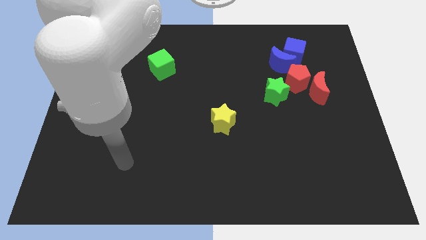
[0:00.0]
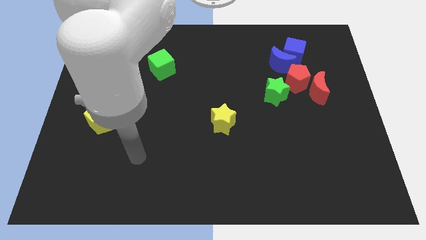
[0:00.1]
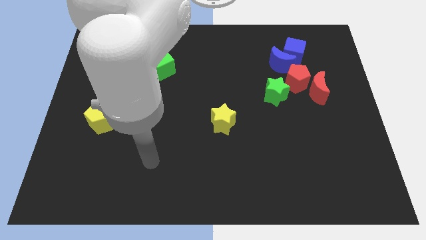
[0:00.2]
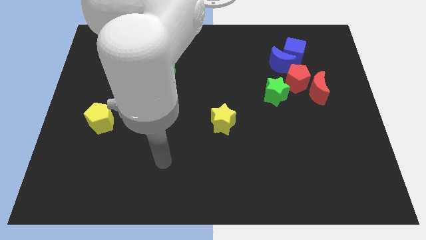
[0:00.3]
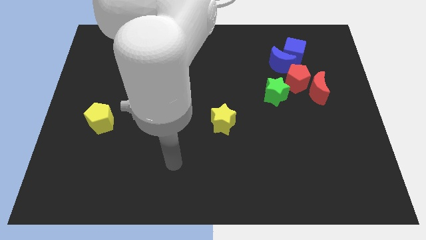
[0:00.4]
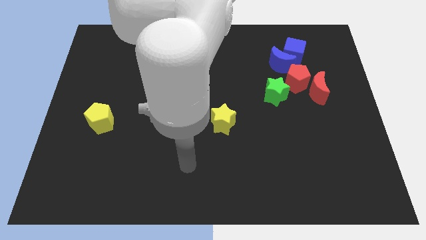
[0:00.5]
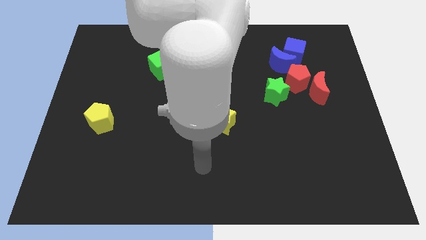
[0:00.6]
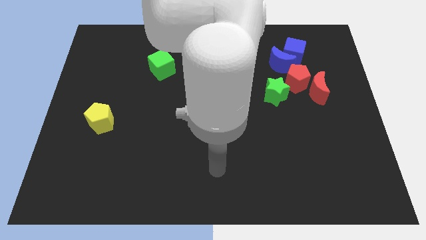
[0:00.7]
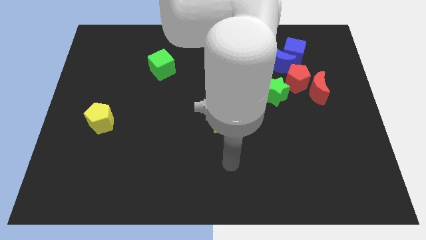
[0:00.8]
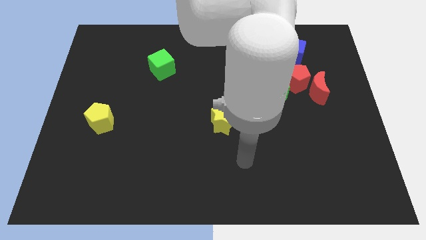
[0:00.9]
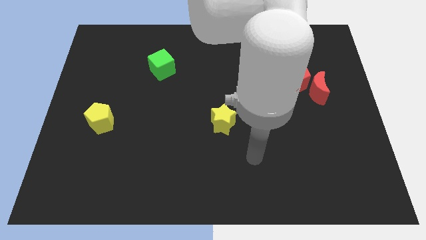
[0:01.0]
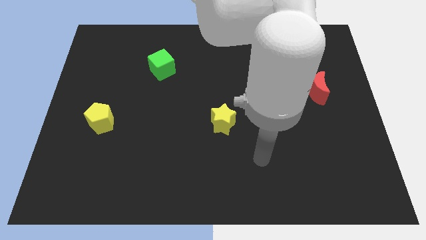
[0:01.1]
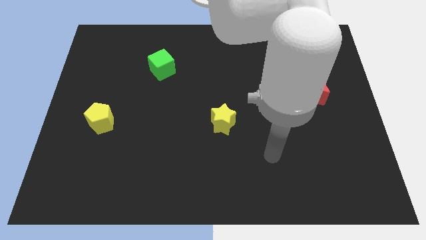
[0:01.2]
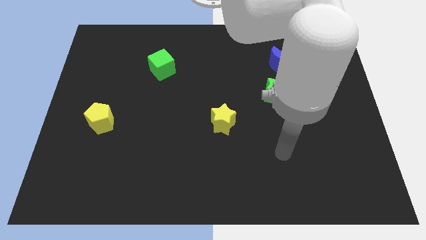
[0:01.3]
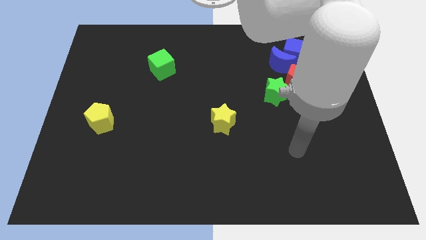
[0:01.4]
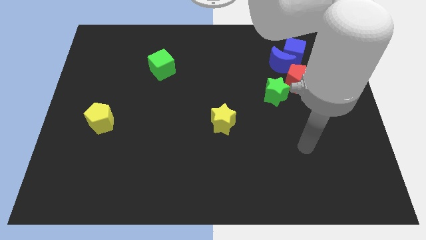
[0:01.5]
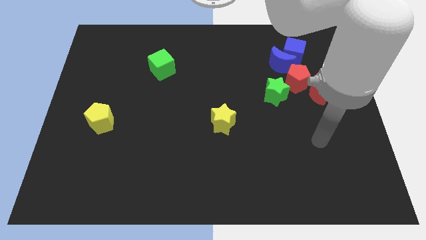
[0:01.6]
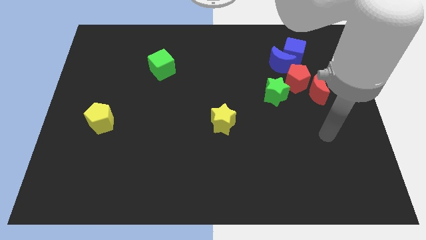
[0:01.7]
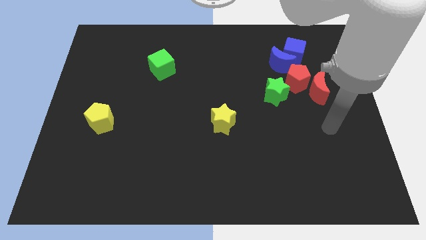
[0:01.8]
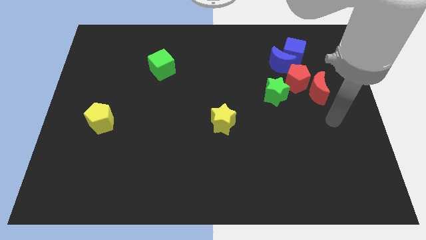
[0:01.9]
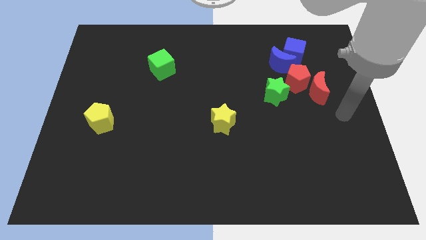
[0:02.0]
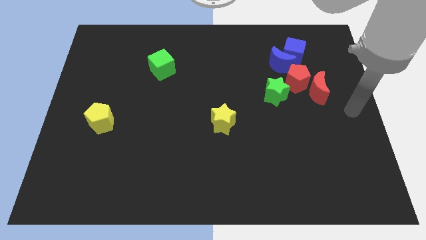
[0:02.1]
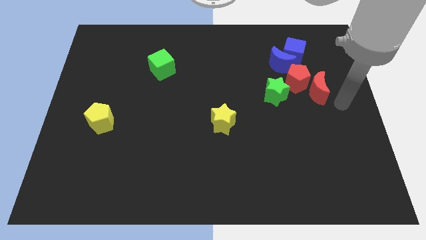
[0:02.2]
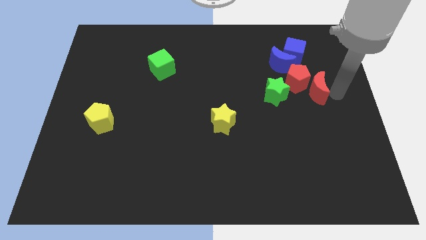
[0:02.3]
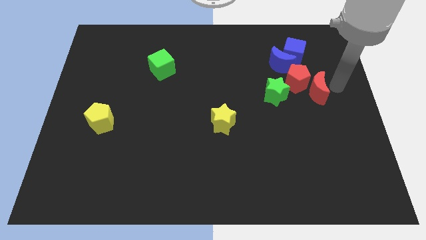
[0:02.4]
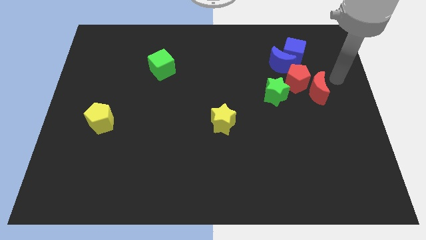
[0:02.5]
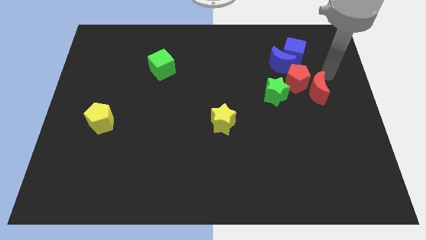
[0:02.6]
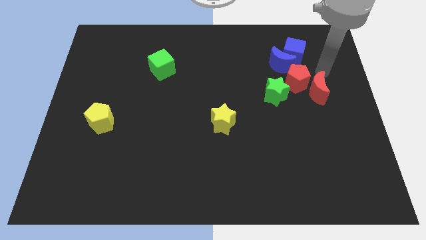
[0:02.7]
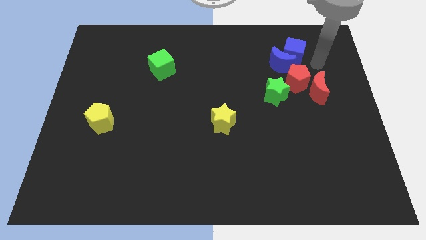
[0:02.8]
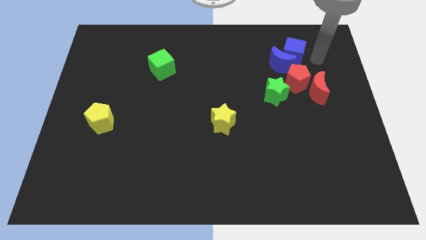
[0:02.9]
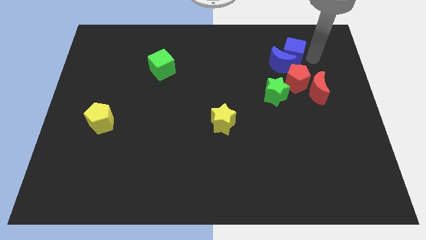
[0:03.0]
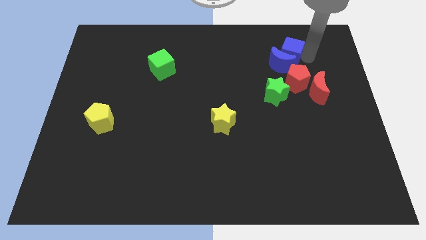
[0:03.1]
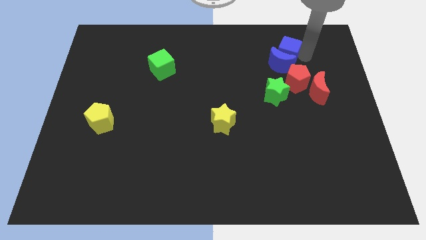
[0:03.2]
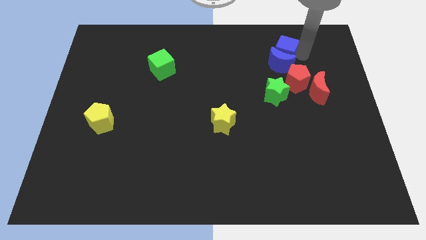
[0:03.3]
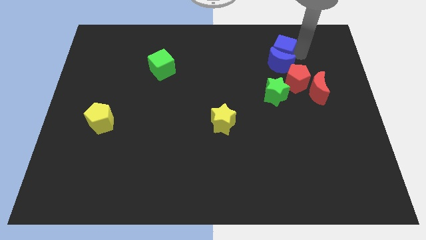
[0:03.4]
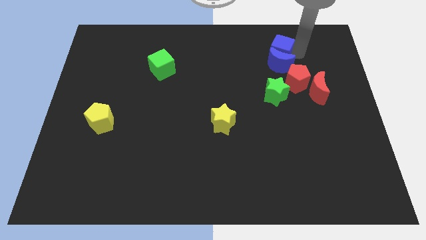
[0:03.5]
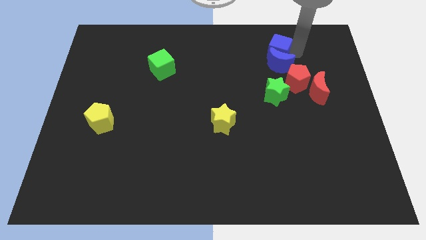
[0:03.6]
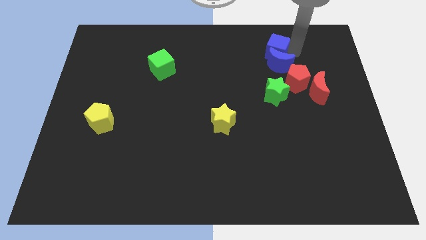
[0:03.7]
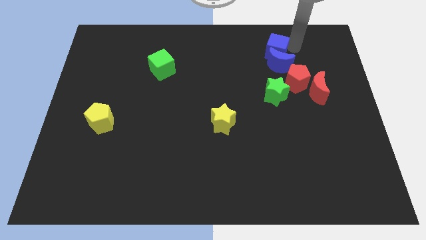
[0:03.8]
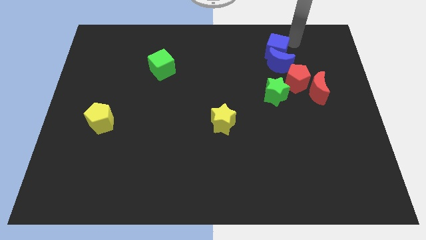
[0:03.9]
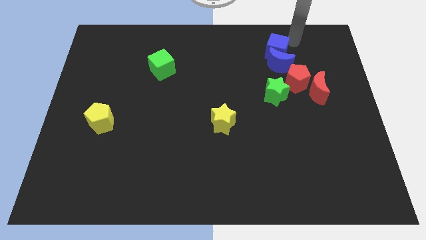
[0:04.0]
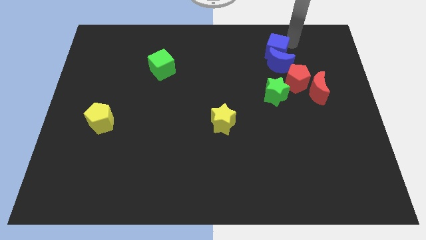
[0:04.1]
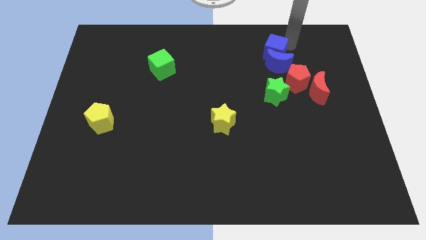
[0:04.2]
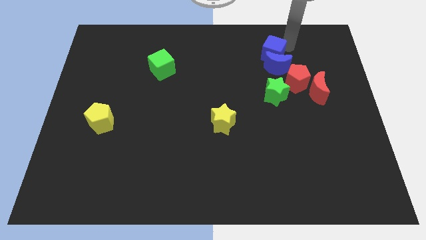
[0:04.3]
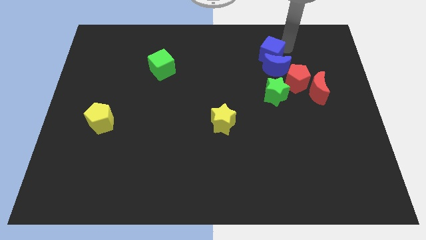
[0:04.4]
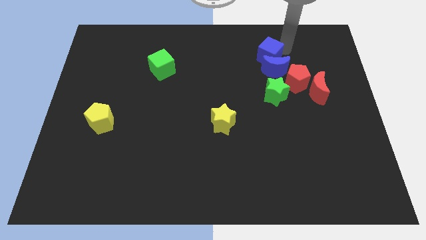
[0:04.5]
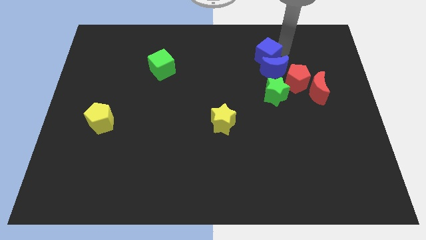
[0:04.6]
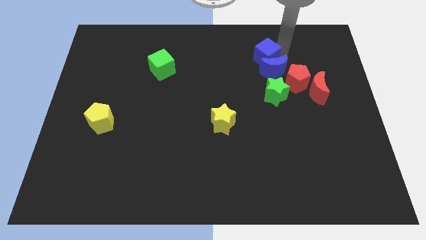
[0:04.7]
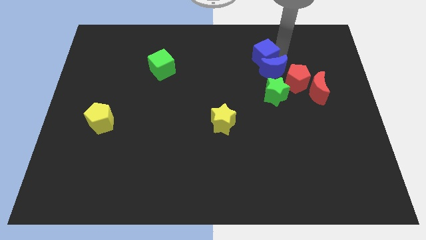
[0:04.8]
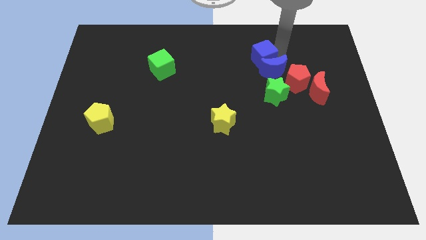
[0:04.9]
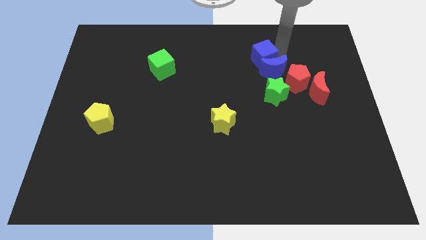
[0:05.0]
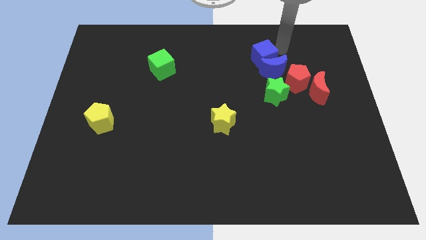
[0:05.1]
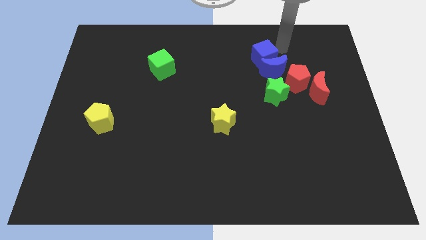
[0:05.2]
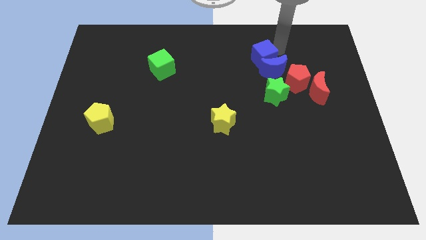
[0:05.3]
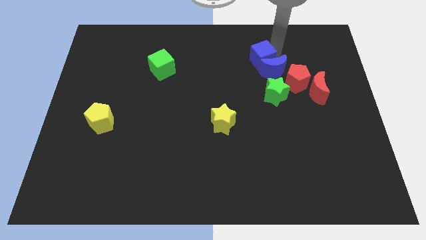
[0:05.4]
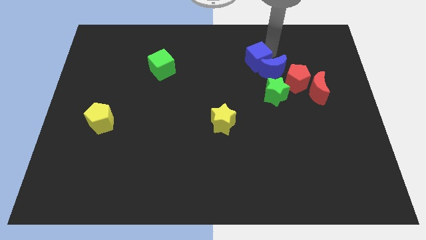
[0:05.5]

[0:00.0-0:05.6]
slightly push the blue cube down and to the left

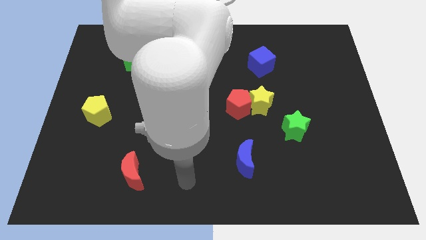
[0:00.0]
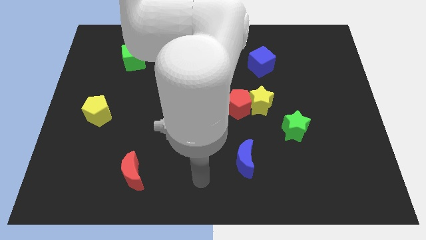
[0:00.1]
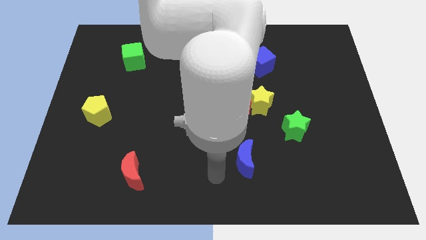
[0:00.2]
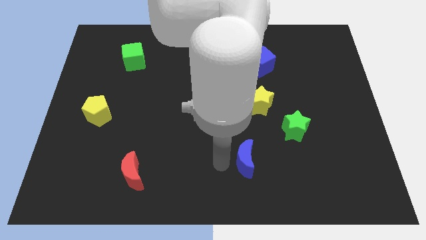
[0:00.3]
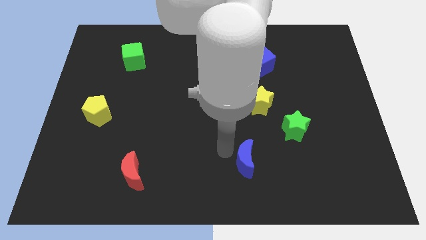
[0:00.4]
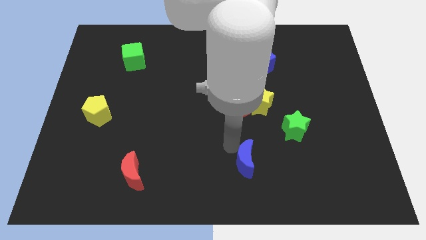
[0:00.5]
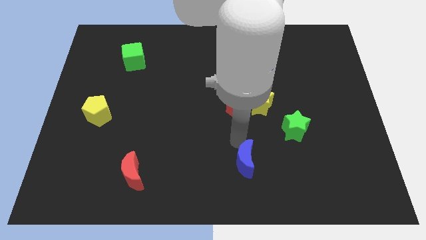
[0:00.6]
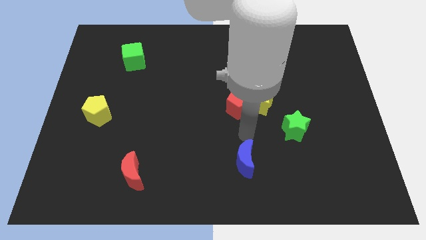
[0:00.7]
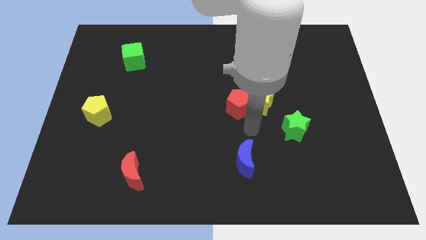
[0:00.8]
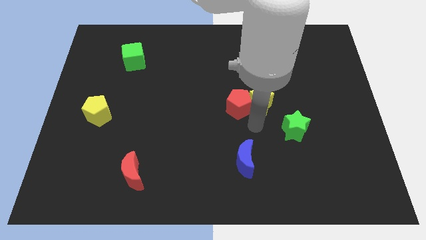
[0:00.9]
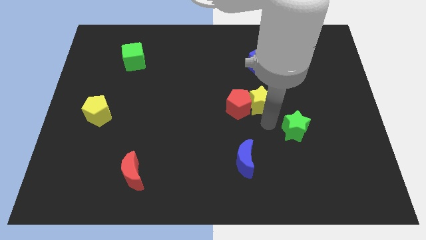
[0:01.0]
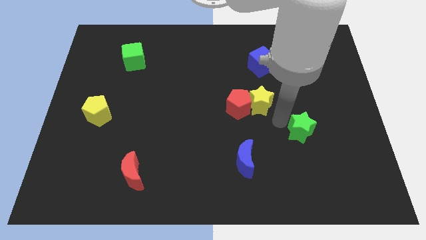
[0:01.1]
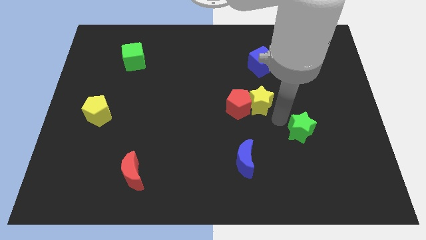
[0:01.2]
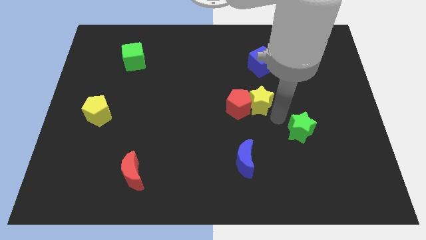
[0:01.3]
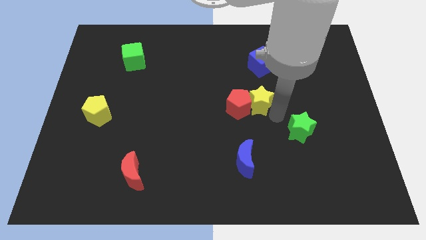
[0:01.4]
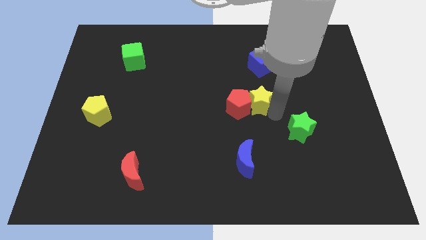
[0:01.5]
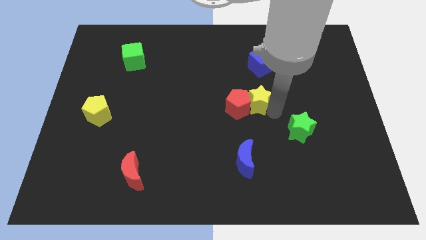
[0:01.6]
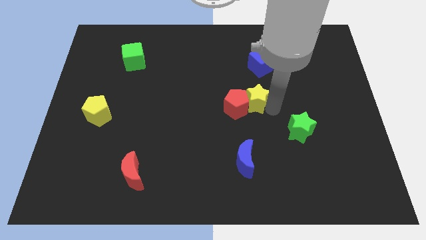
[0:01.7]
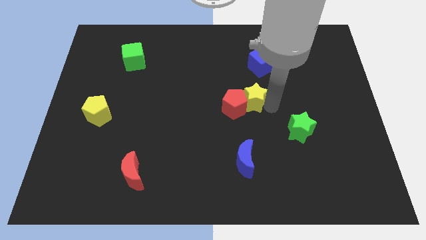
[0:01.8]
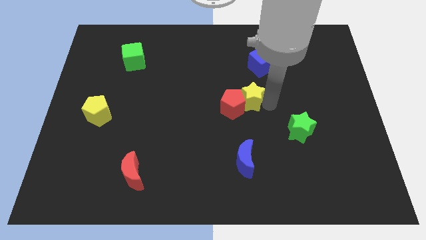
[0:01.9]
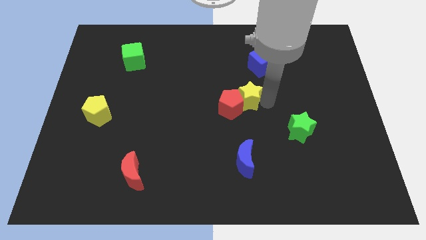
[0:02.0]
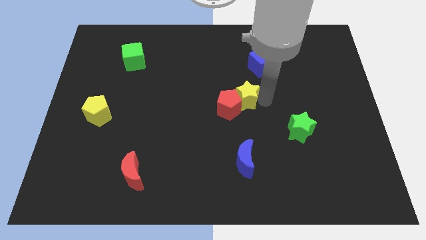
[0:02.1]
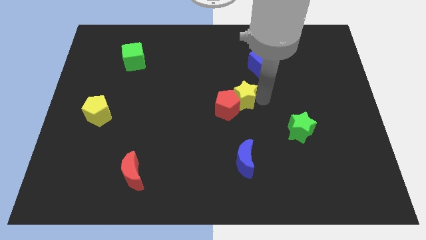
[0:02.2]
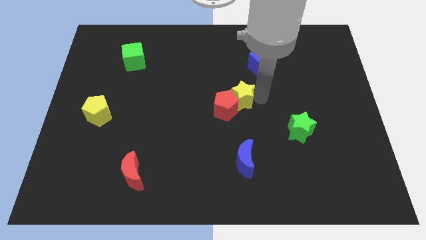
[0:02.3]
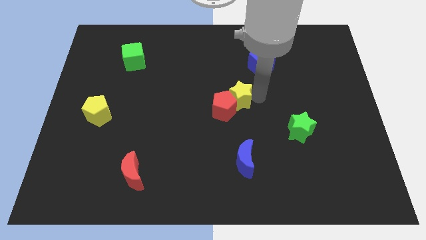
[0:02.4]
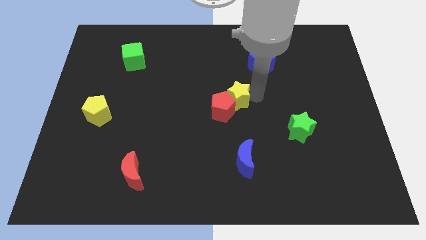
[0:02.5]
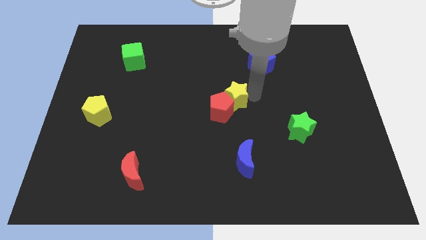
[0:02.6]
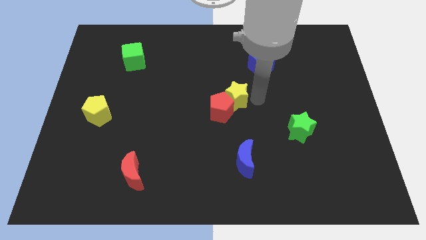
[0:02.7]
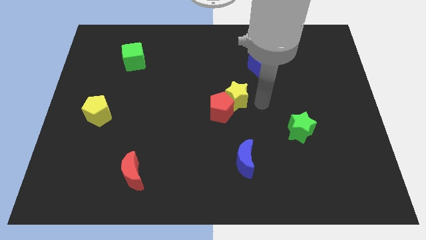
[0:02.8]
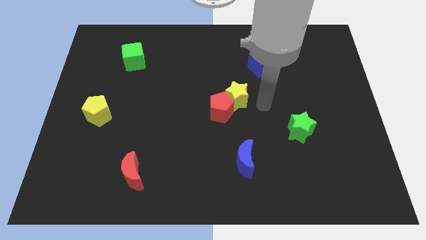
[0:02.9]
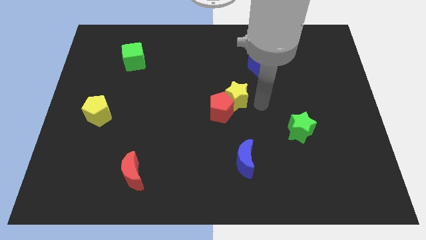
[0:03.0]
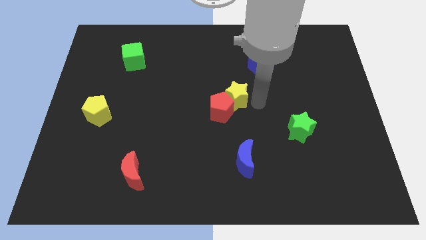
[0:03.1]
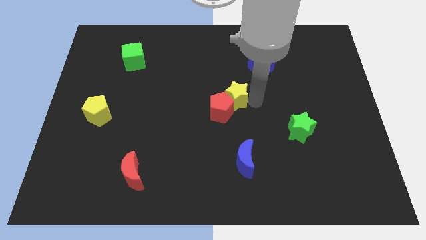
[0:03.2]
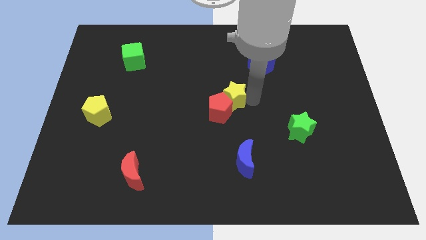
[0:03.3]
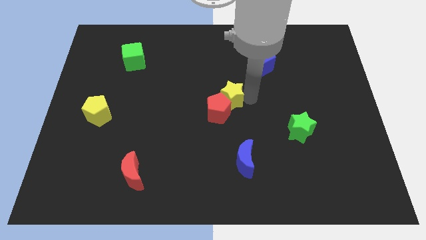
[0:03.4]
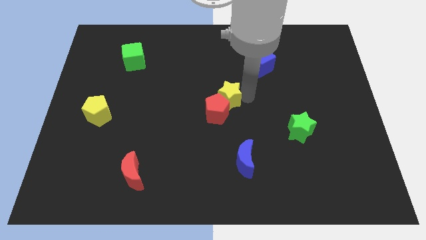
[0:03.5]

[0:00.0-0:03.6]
move the yellow star somewhat to the left
